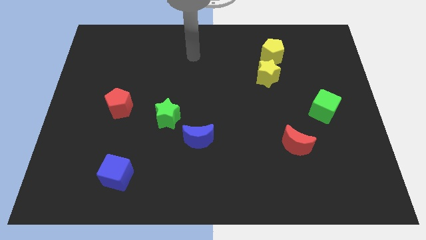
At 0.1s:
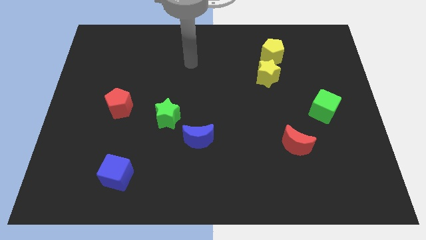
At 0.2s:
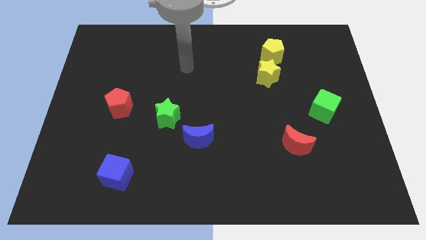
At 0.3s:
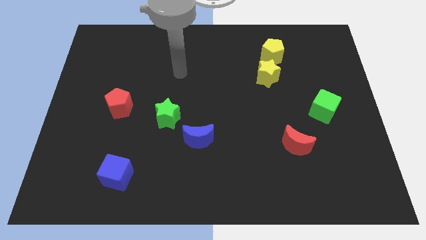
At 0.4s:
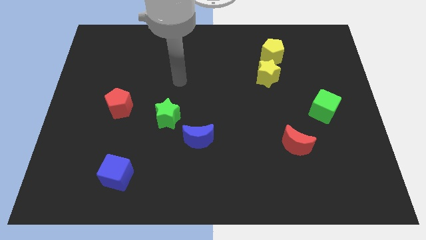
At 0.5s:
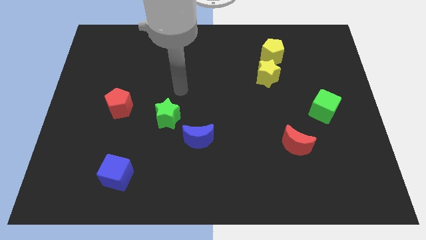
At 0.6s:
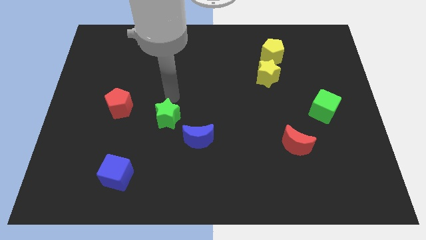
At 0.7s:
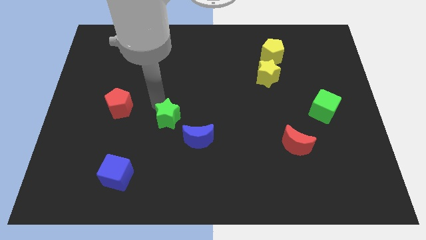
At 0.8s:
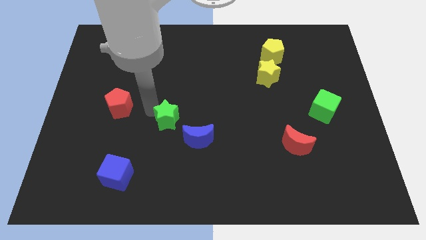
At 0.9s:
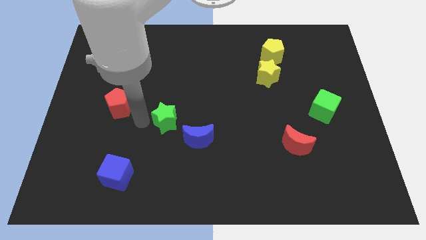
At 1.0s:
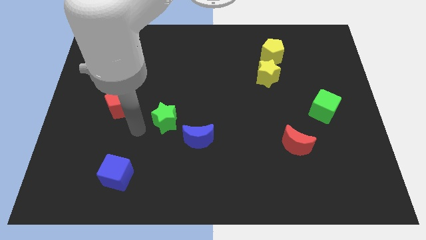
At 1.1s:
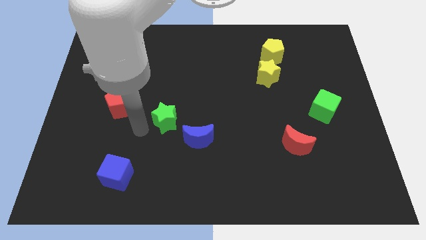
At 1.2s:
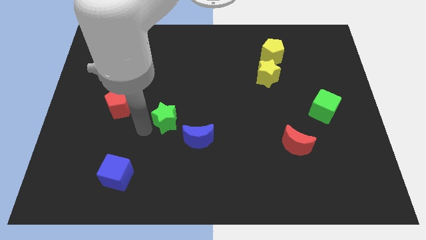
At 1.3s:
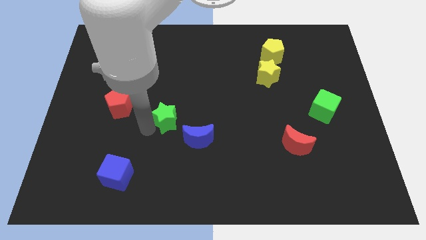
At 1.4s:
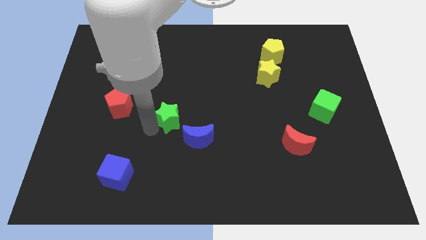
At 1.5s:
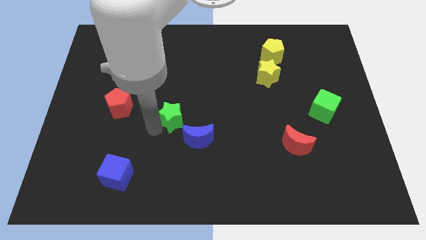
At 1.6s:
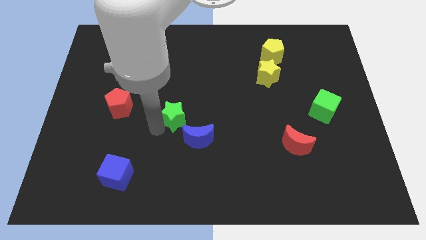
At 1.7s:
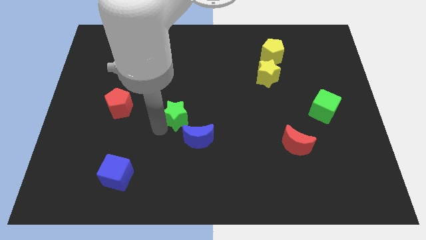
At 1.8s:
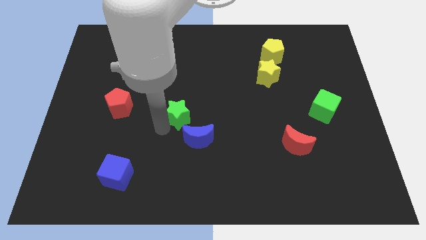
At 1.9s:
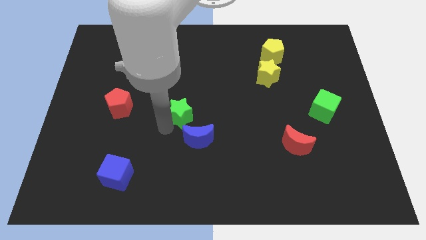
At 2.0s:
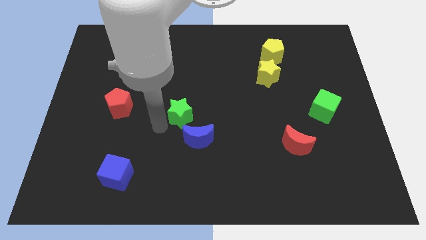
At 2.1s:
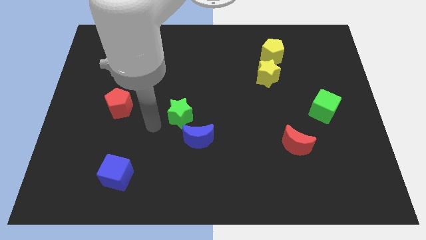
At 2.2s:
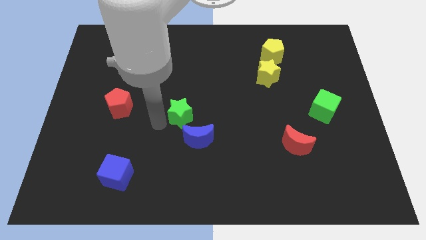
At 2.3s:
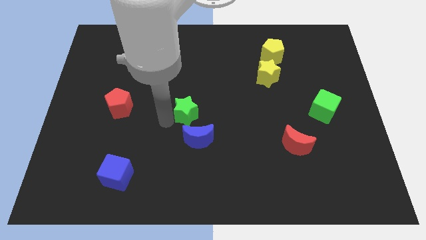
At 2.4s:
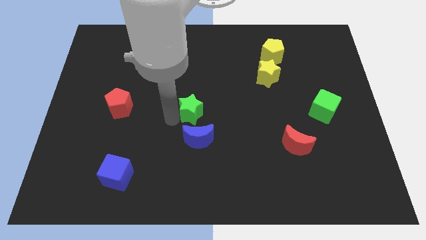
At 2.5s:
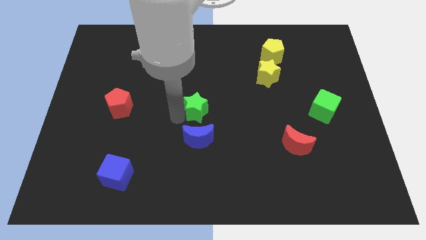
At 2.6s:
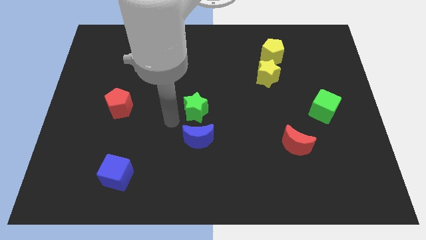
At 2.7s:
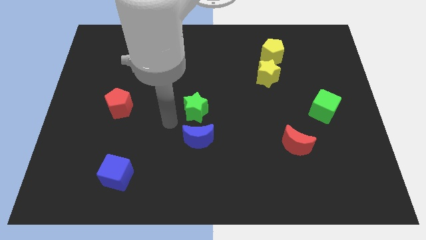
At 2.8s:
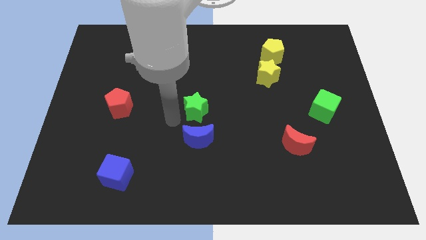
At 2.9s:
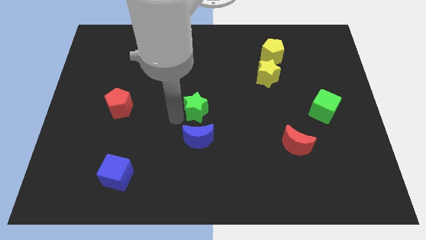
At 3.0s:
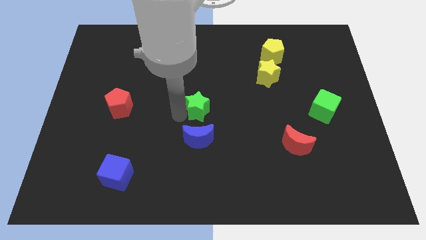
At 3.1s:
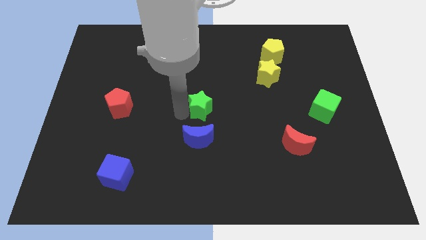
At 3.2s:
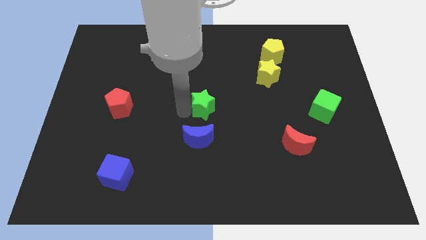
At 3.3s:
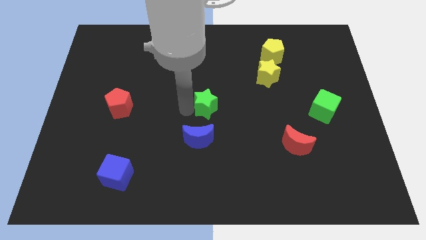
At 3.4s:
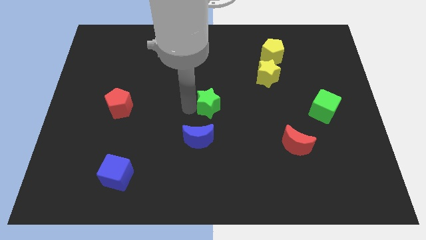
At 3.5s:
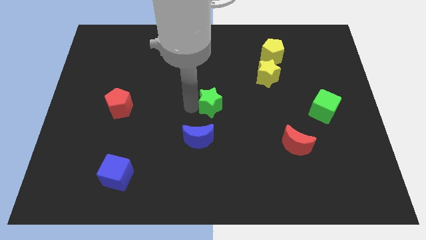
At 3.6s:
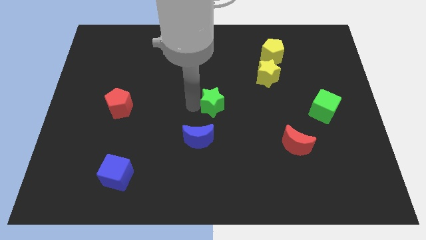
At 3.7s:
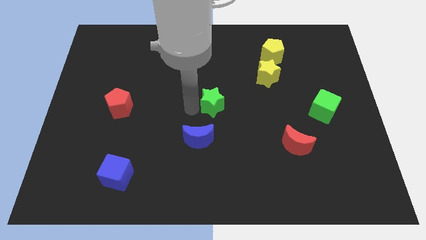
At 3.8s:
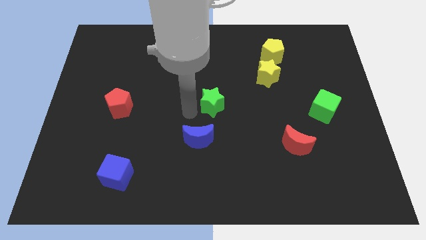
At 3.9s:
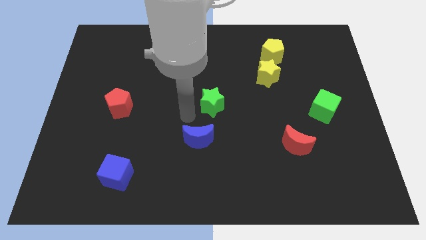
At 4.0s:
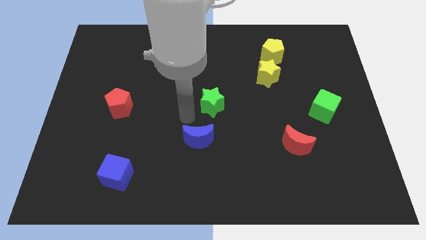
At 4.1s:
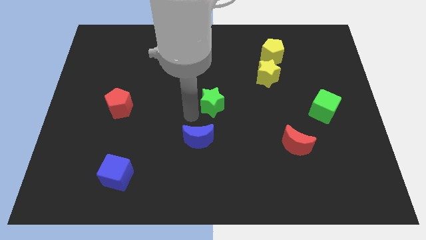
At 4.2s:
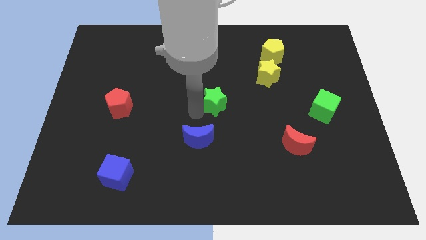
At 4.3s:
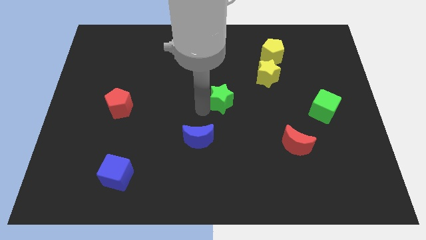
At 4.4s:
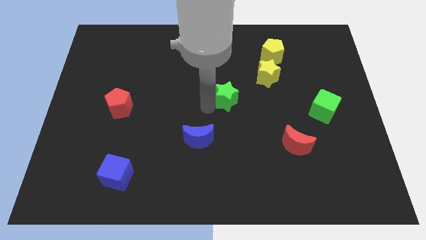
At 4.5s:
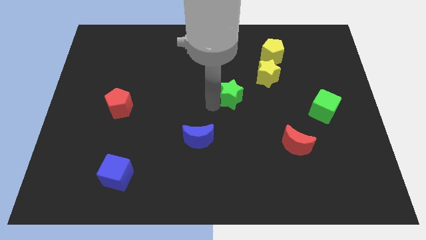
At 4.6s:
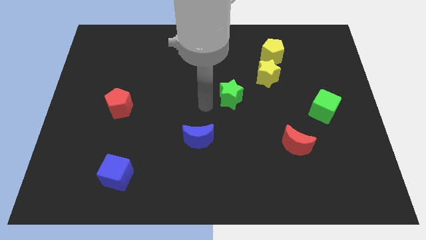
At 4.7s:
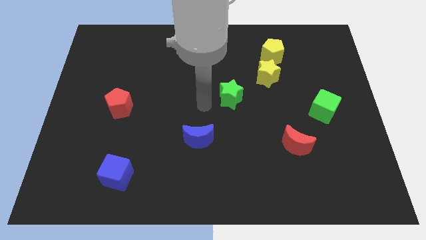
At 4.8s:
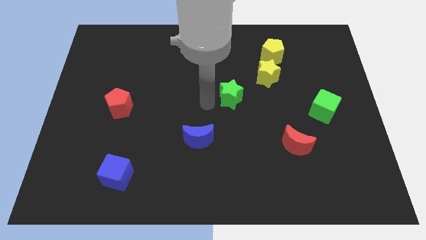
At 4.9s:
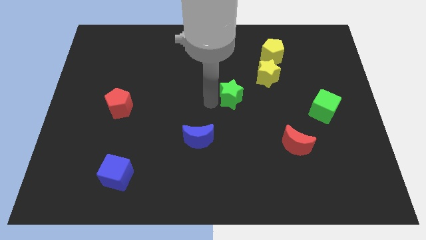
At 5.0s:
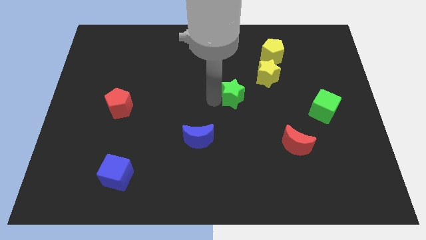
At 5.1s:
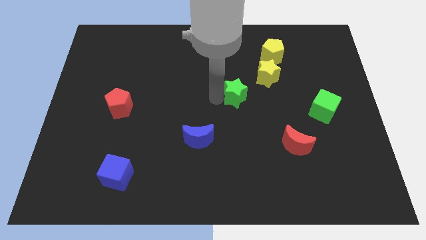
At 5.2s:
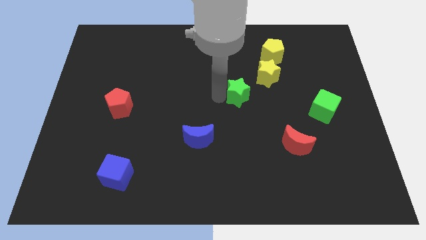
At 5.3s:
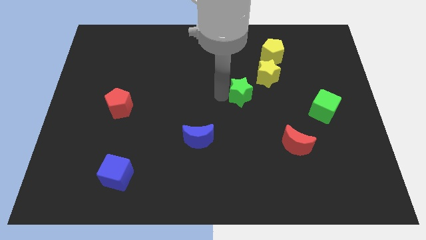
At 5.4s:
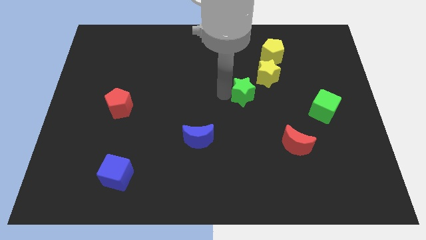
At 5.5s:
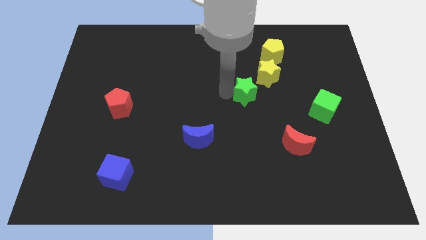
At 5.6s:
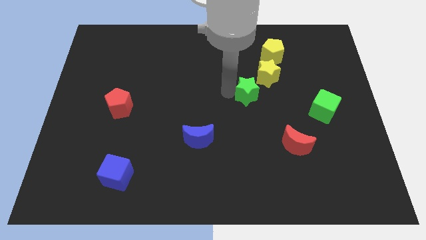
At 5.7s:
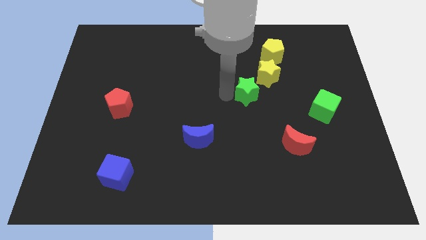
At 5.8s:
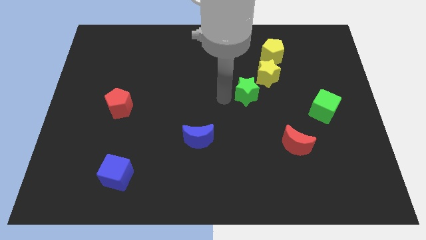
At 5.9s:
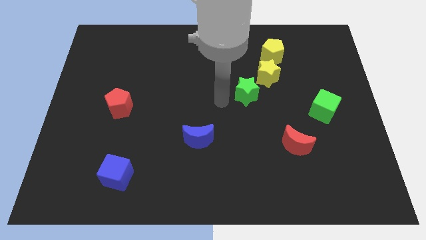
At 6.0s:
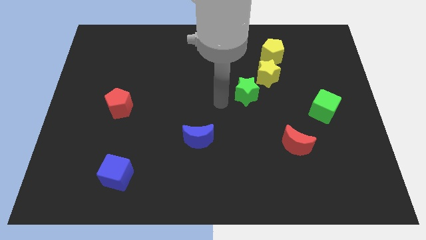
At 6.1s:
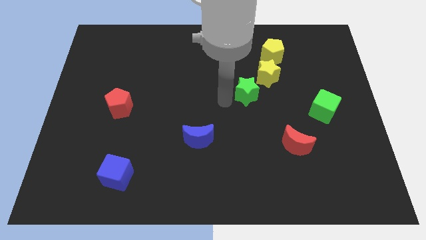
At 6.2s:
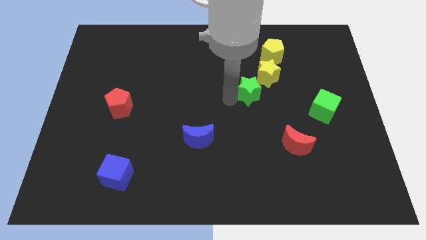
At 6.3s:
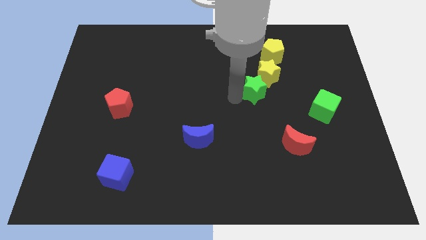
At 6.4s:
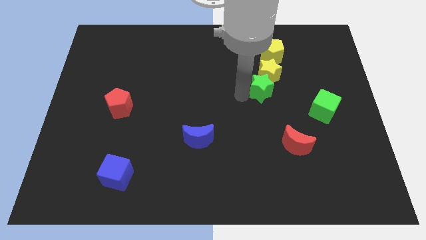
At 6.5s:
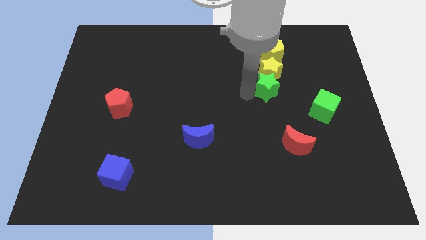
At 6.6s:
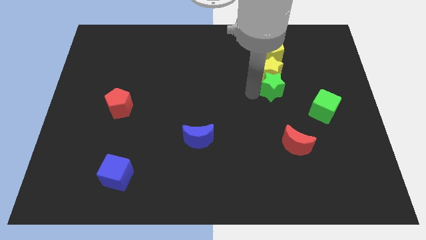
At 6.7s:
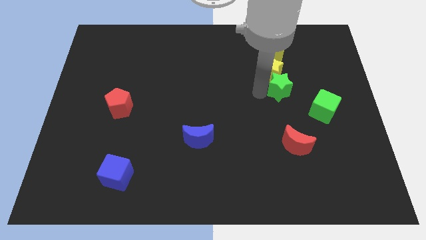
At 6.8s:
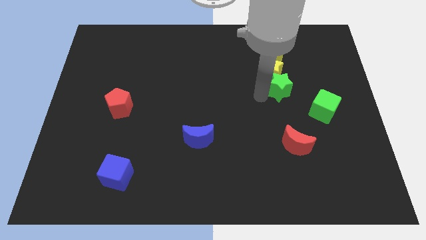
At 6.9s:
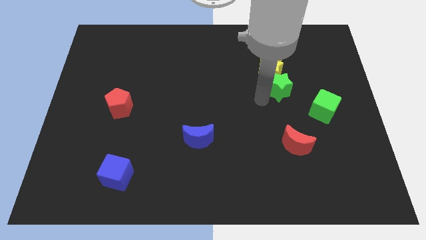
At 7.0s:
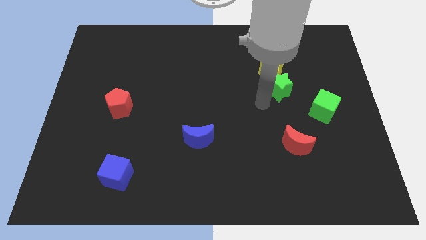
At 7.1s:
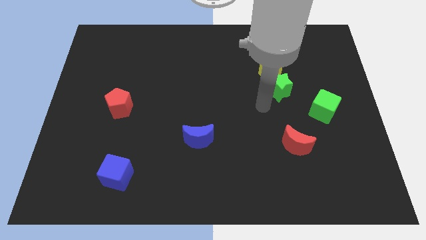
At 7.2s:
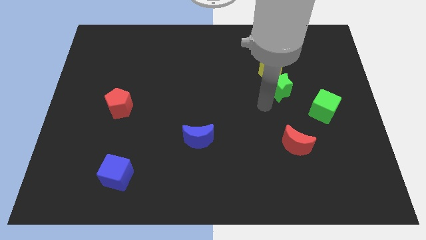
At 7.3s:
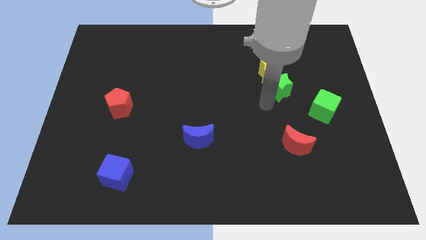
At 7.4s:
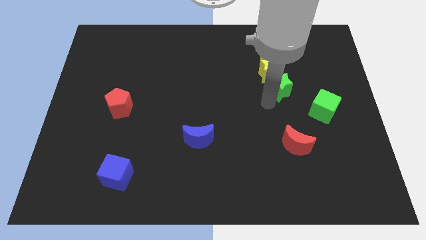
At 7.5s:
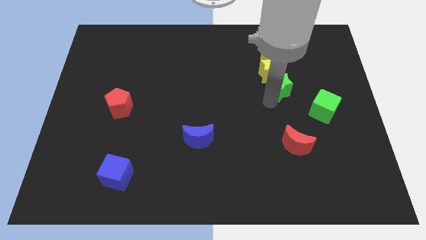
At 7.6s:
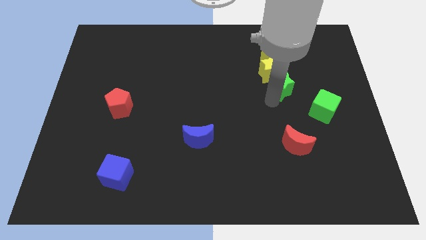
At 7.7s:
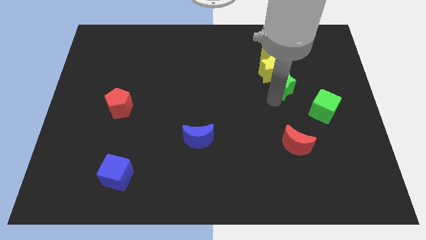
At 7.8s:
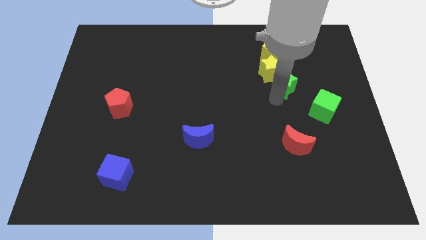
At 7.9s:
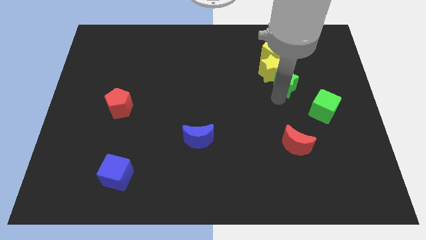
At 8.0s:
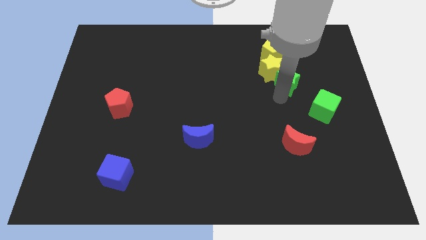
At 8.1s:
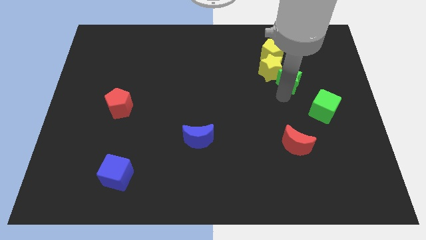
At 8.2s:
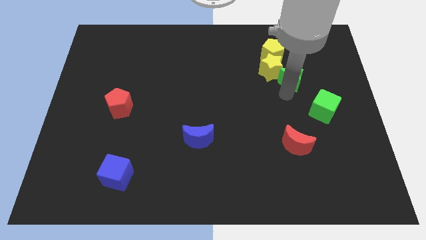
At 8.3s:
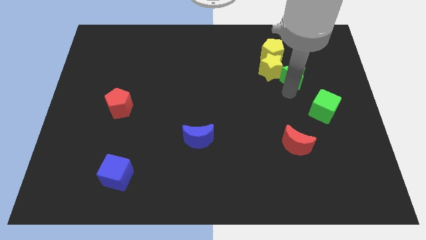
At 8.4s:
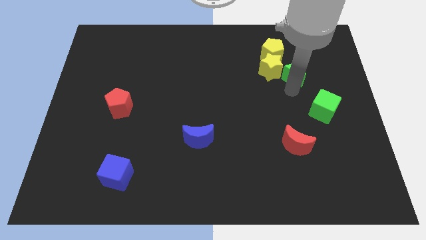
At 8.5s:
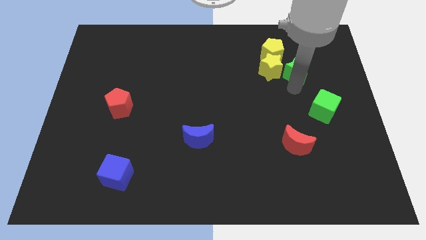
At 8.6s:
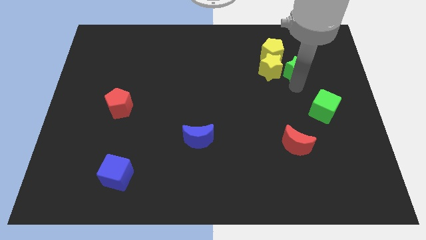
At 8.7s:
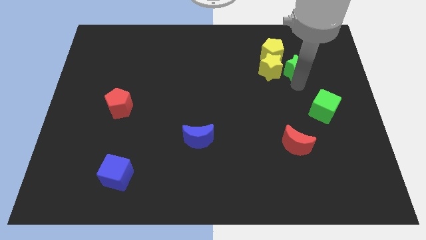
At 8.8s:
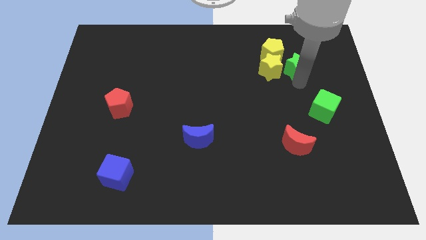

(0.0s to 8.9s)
push the green star to the top right side of the yellow star
